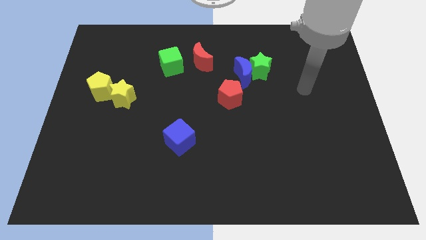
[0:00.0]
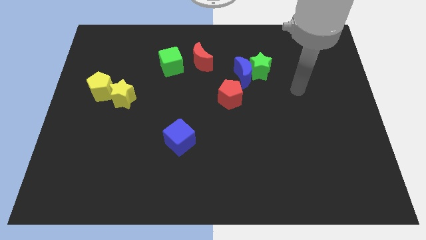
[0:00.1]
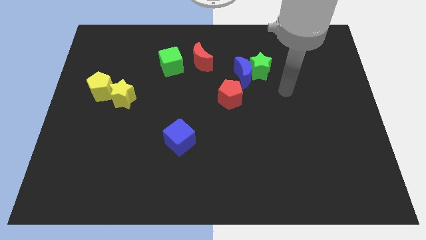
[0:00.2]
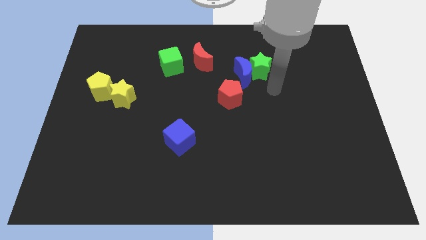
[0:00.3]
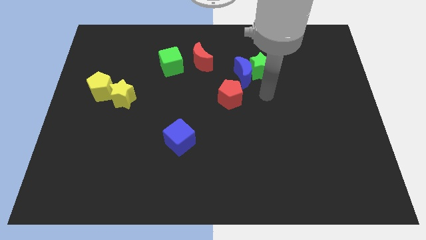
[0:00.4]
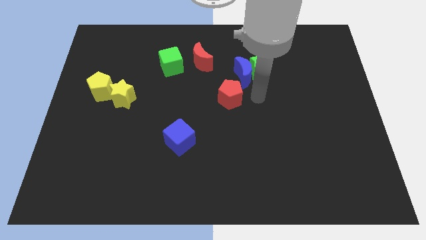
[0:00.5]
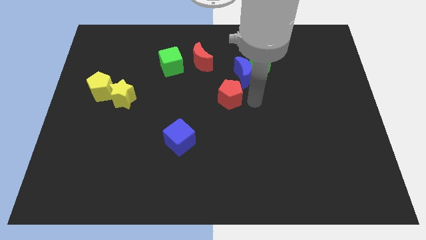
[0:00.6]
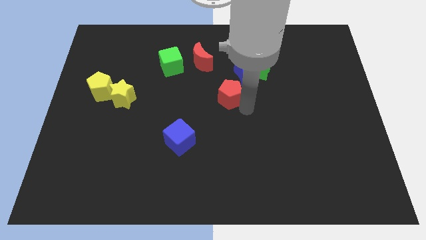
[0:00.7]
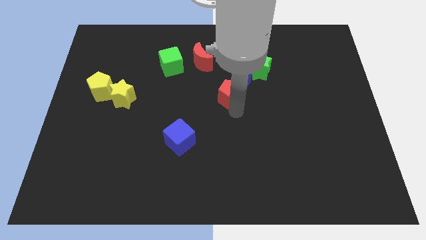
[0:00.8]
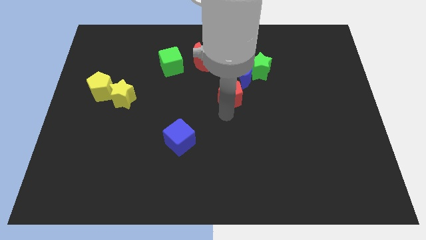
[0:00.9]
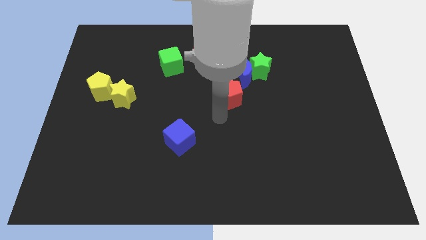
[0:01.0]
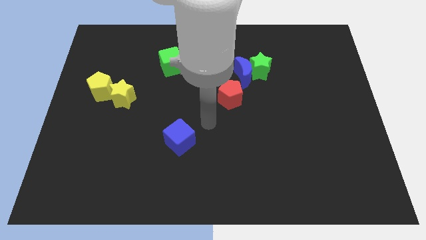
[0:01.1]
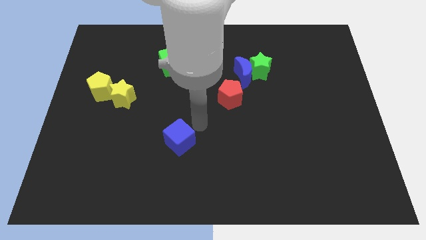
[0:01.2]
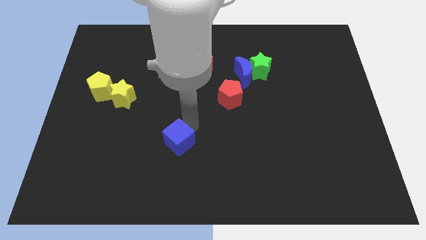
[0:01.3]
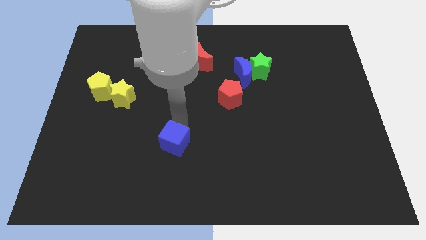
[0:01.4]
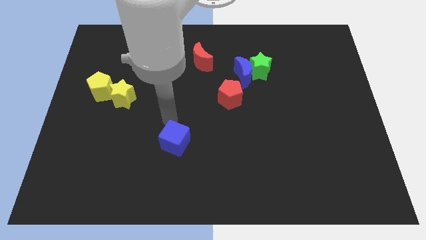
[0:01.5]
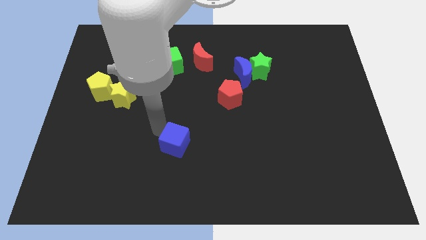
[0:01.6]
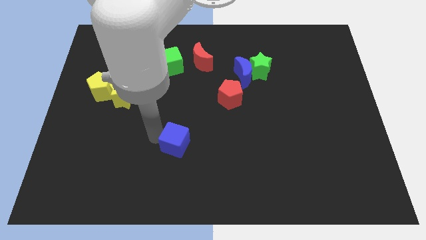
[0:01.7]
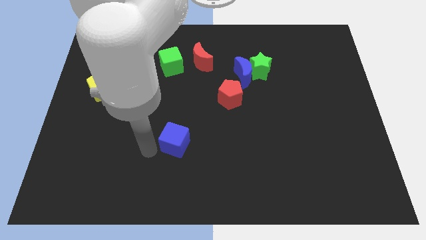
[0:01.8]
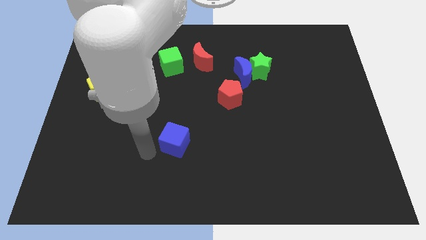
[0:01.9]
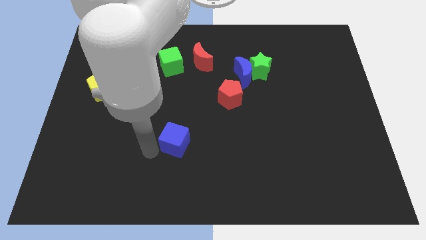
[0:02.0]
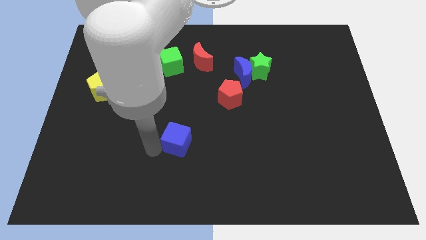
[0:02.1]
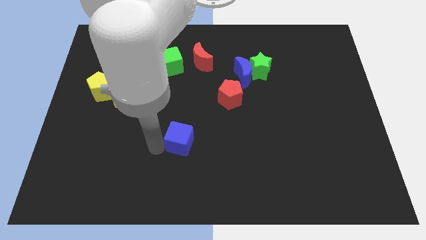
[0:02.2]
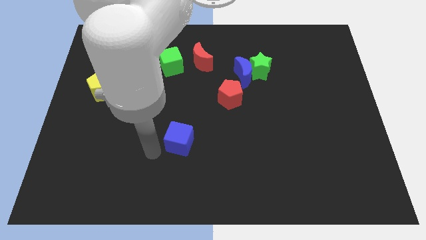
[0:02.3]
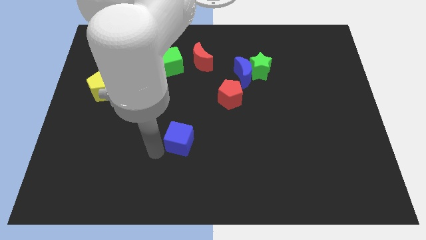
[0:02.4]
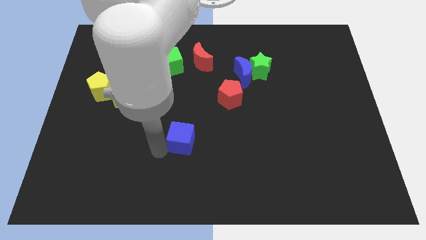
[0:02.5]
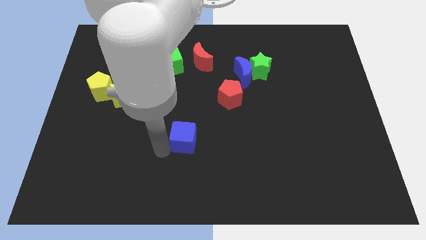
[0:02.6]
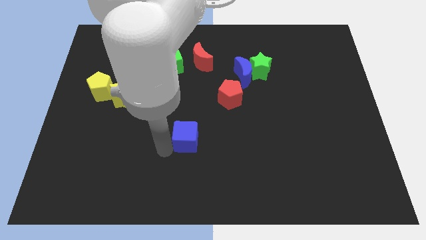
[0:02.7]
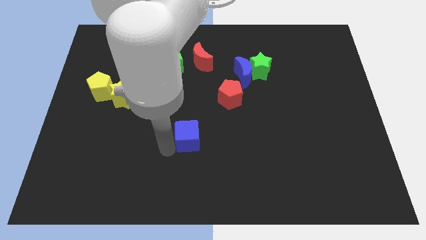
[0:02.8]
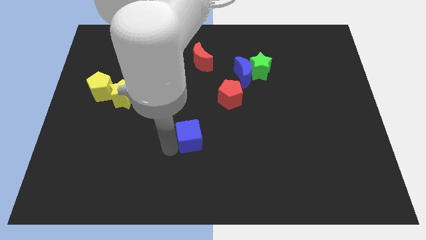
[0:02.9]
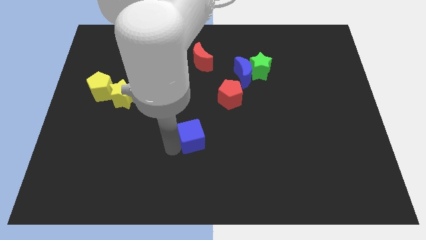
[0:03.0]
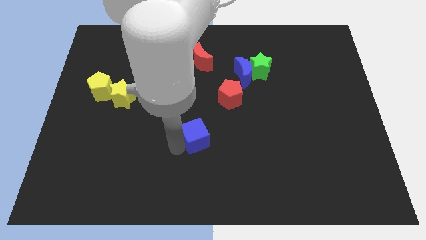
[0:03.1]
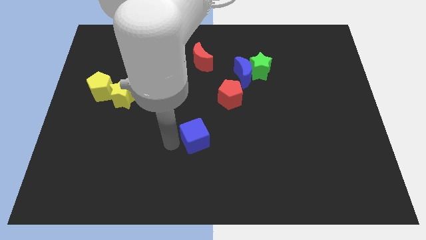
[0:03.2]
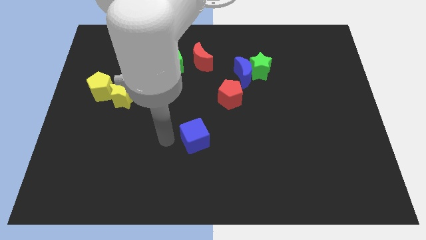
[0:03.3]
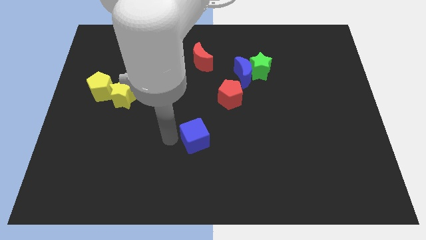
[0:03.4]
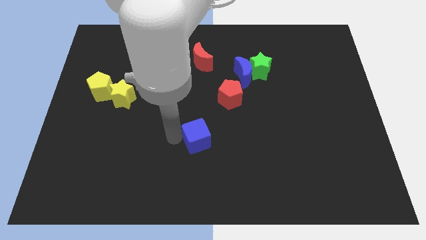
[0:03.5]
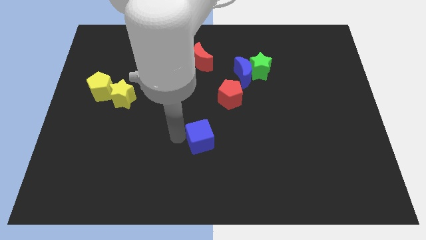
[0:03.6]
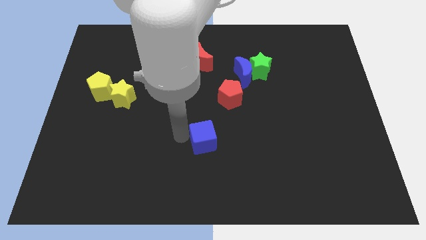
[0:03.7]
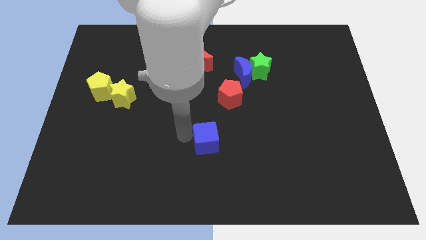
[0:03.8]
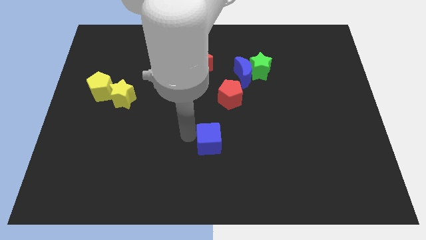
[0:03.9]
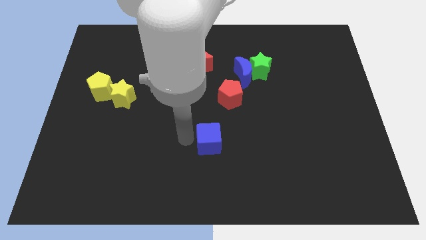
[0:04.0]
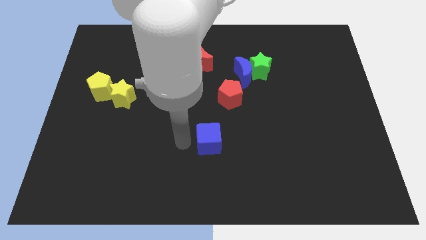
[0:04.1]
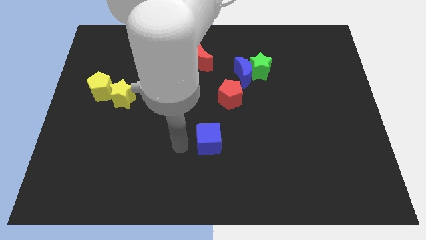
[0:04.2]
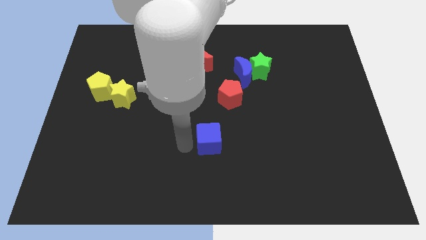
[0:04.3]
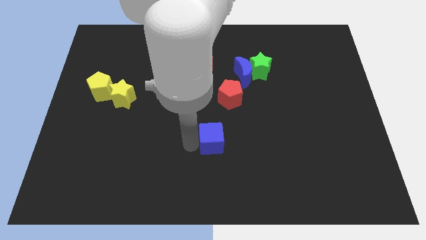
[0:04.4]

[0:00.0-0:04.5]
push the blue cube a bit to the right

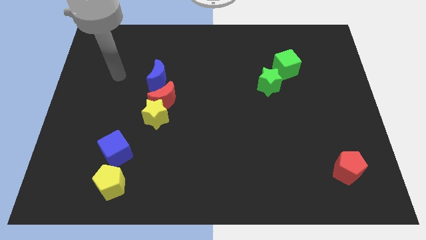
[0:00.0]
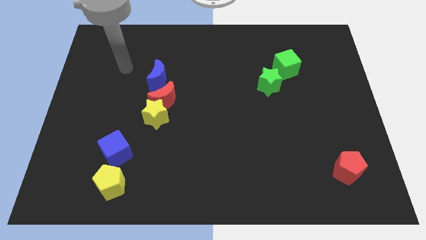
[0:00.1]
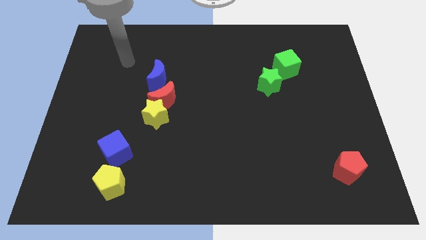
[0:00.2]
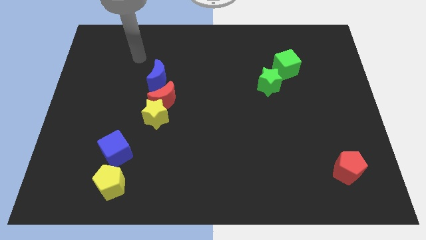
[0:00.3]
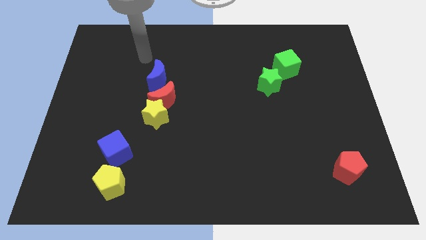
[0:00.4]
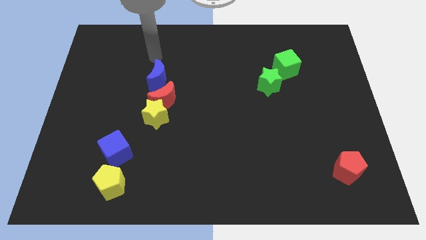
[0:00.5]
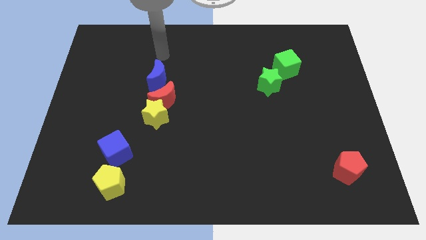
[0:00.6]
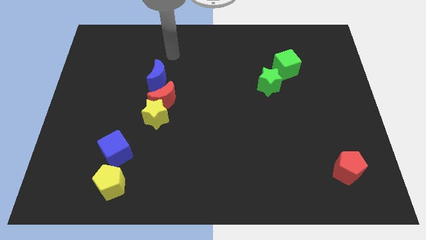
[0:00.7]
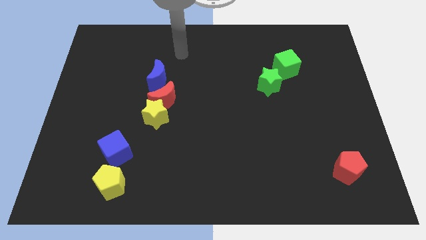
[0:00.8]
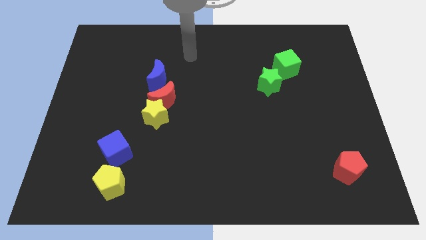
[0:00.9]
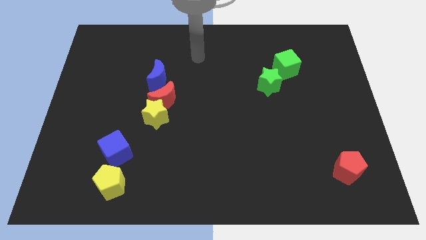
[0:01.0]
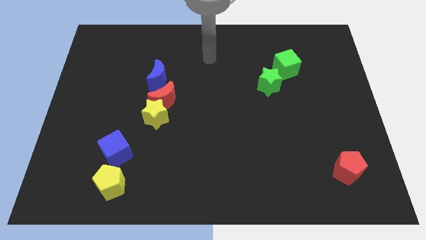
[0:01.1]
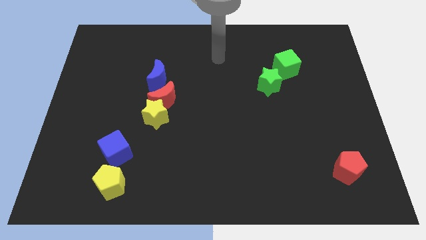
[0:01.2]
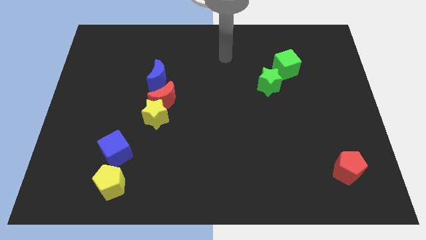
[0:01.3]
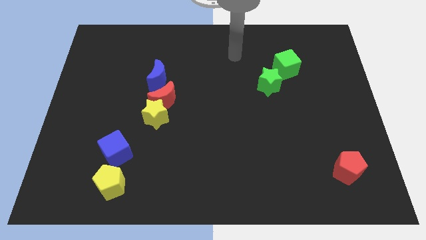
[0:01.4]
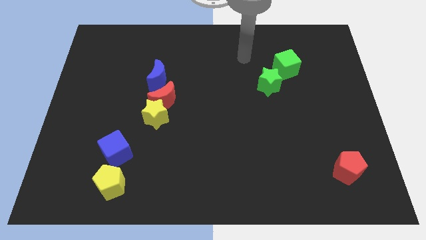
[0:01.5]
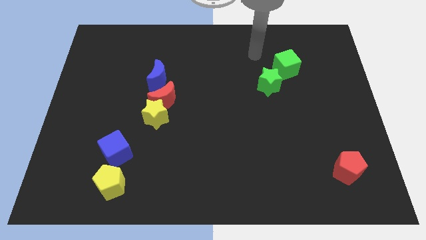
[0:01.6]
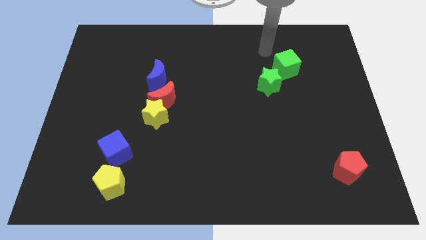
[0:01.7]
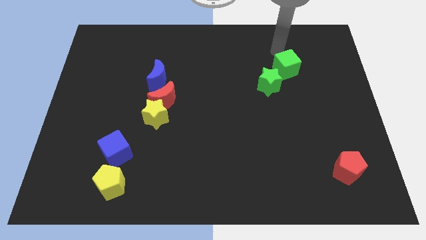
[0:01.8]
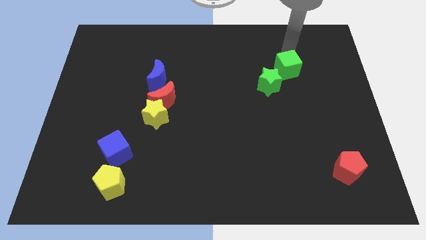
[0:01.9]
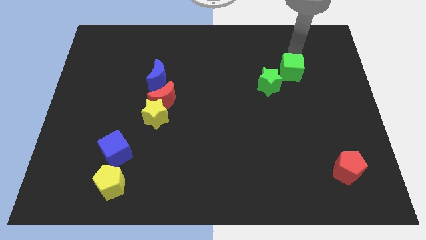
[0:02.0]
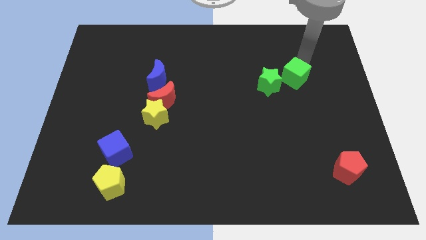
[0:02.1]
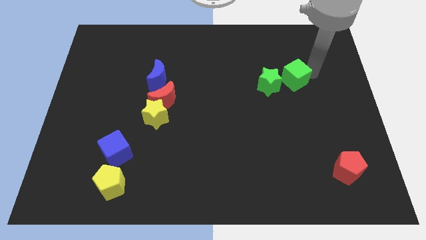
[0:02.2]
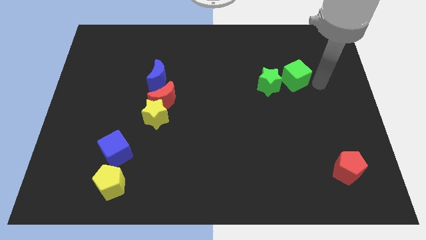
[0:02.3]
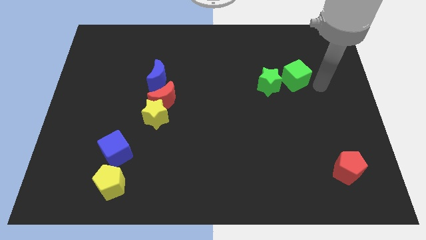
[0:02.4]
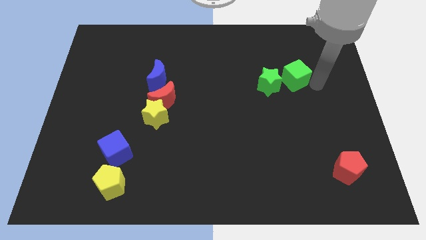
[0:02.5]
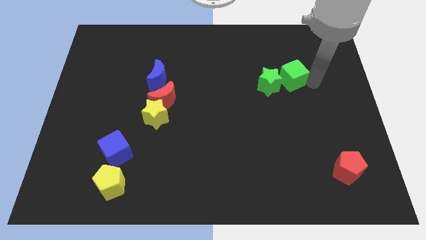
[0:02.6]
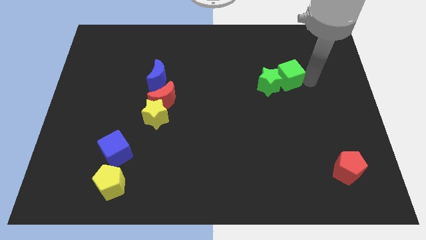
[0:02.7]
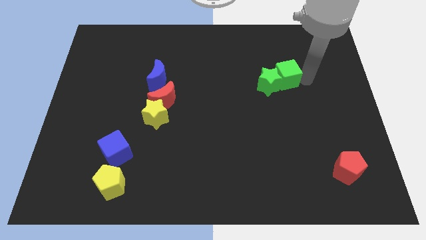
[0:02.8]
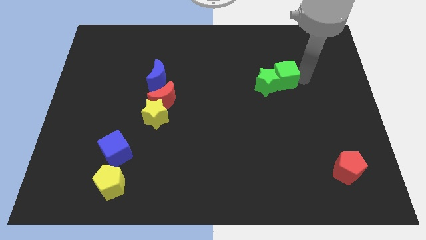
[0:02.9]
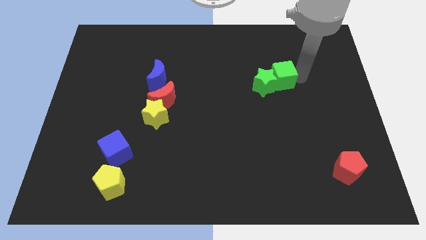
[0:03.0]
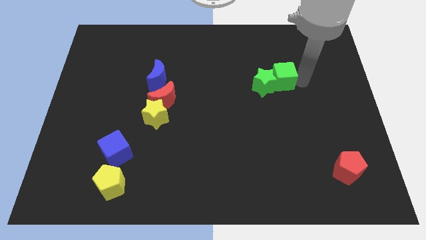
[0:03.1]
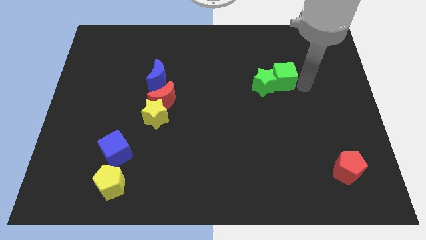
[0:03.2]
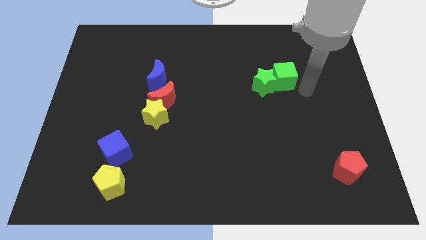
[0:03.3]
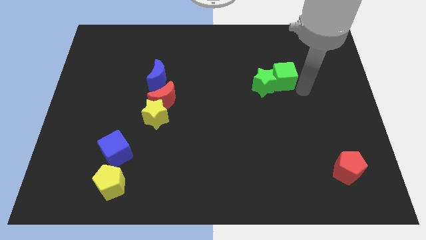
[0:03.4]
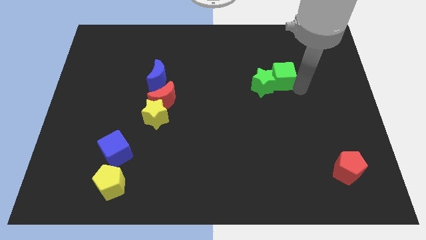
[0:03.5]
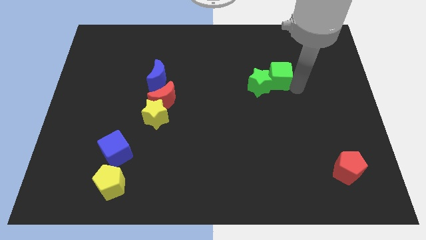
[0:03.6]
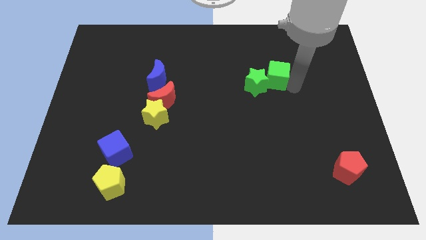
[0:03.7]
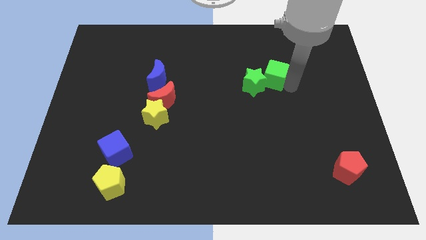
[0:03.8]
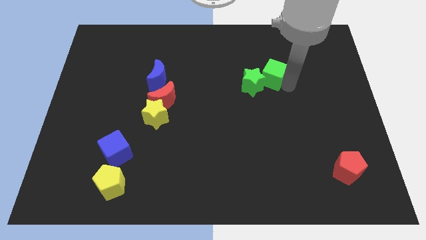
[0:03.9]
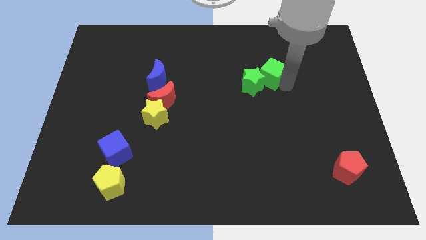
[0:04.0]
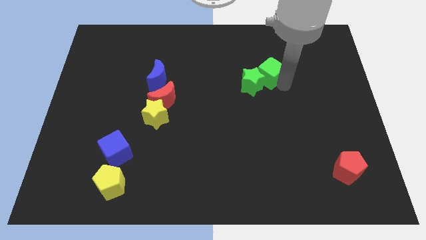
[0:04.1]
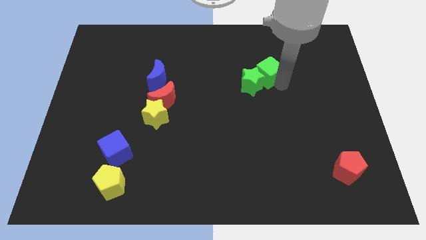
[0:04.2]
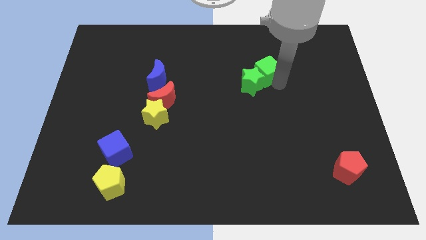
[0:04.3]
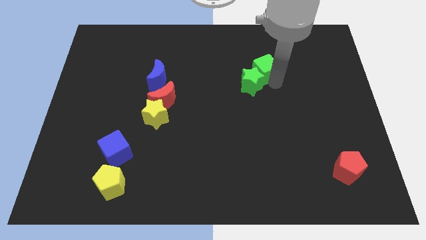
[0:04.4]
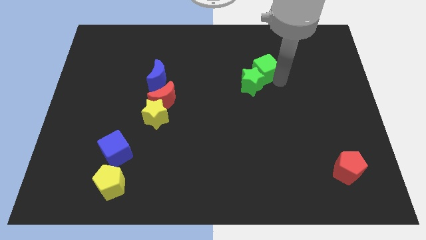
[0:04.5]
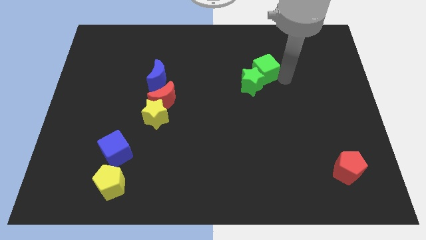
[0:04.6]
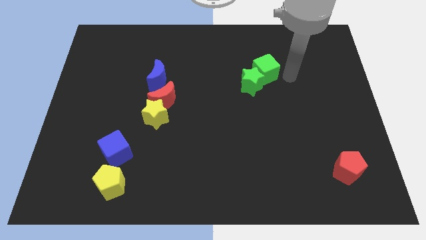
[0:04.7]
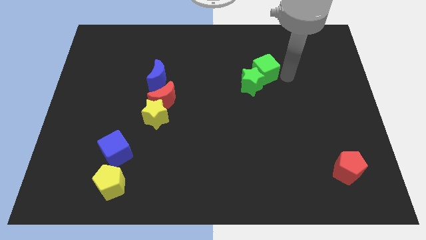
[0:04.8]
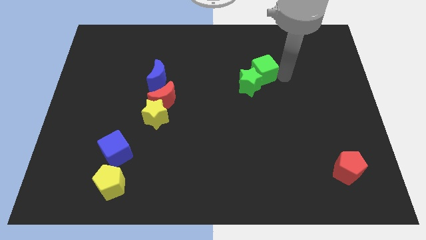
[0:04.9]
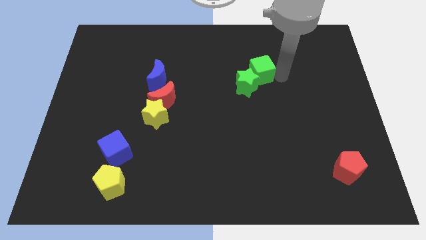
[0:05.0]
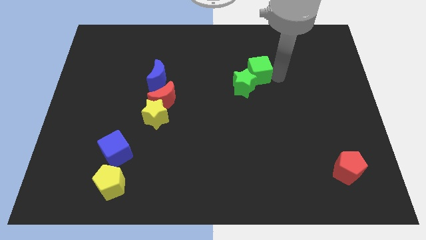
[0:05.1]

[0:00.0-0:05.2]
push the green cube left somewhat
